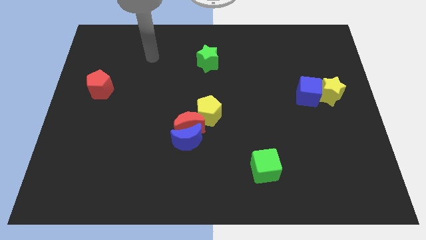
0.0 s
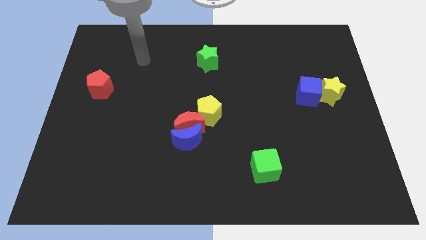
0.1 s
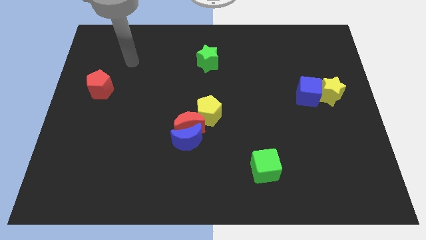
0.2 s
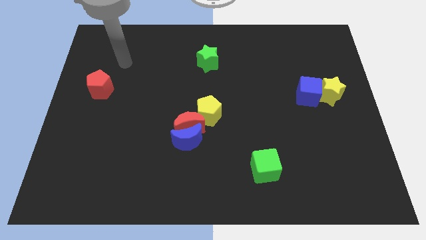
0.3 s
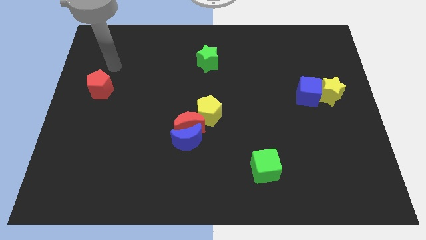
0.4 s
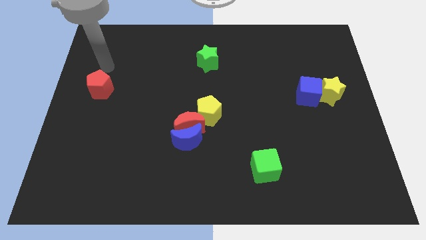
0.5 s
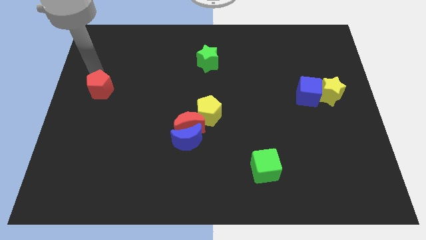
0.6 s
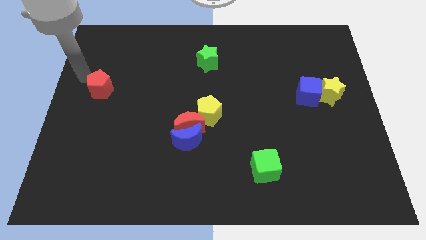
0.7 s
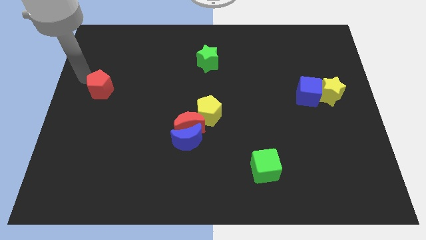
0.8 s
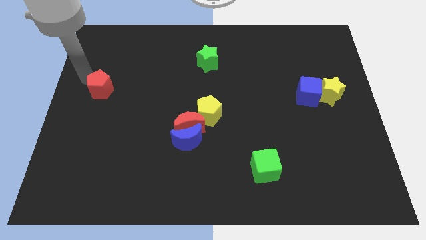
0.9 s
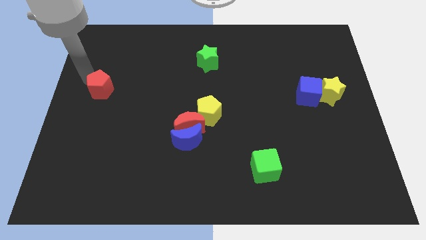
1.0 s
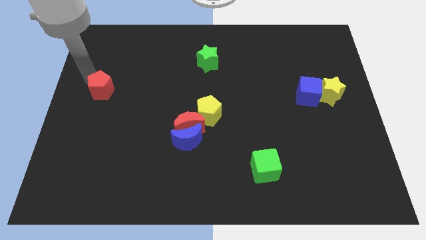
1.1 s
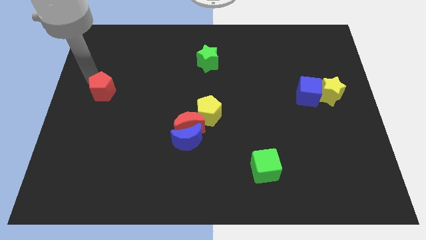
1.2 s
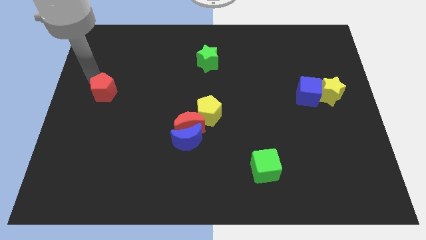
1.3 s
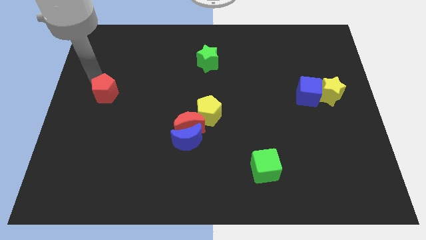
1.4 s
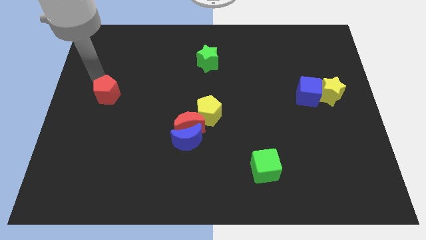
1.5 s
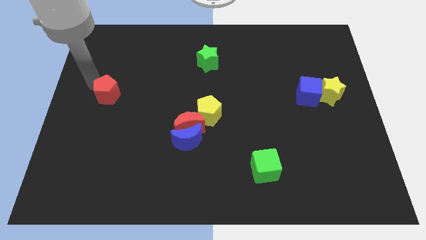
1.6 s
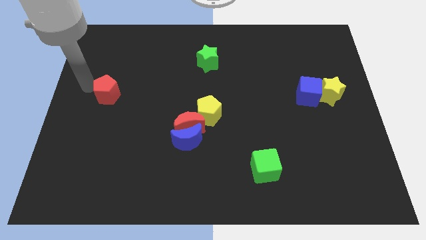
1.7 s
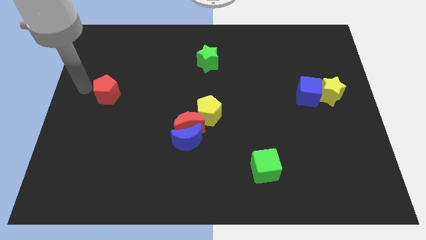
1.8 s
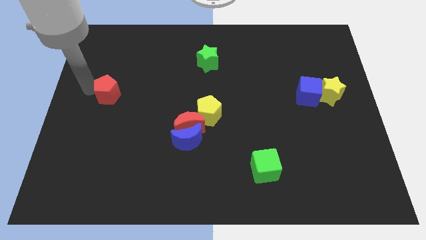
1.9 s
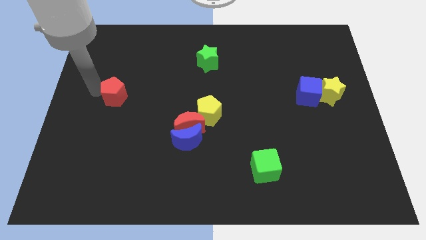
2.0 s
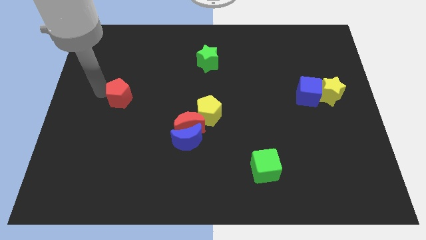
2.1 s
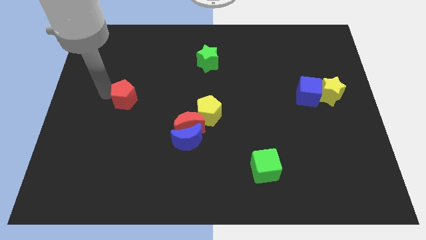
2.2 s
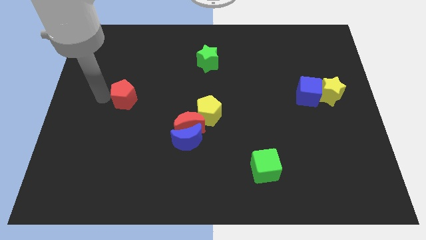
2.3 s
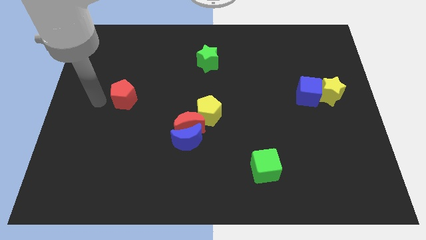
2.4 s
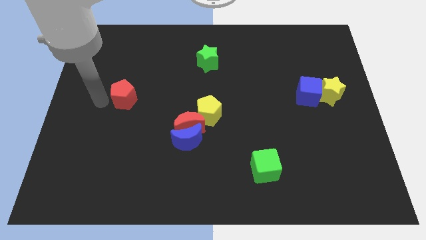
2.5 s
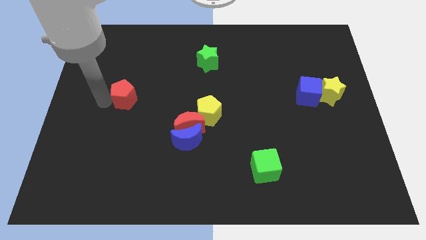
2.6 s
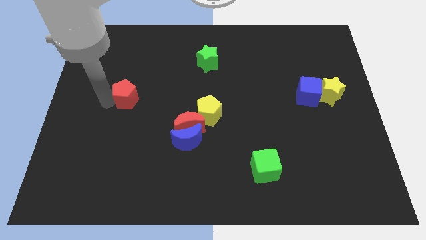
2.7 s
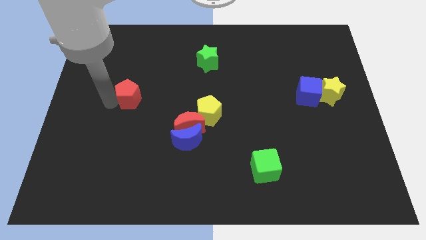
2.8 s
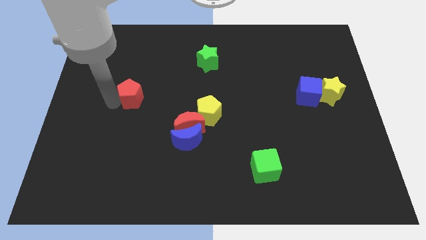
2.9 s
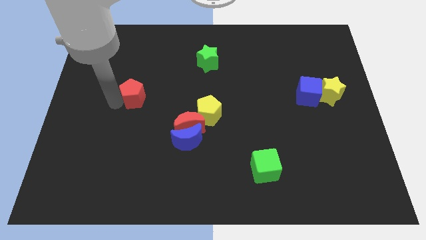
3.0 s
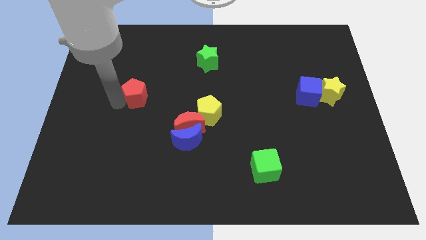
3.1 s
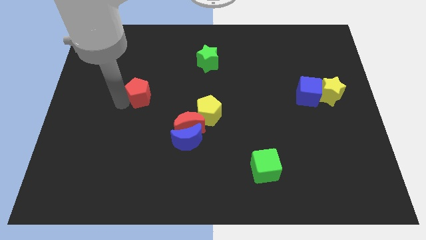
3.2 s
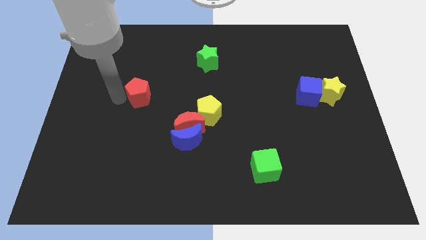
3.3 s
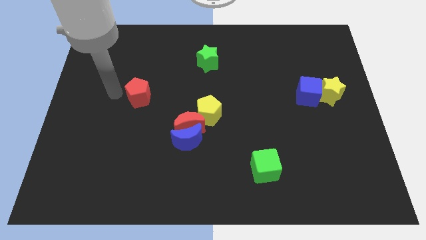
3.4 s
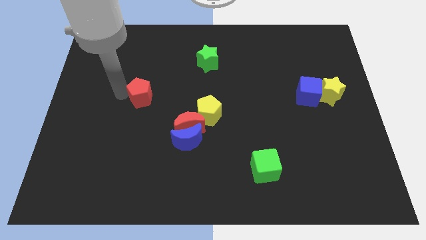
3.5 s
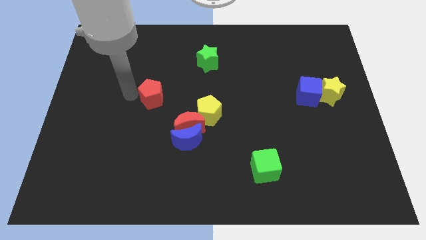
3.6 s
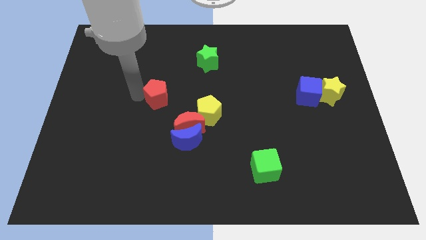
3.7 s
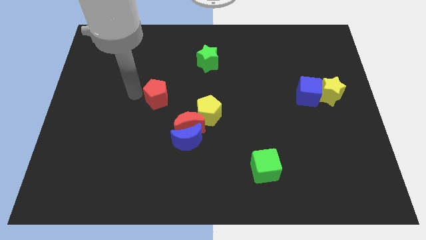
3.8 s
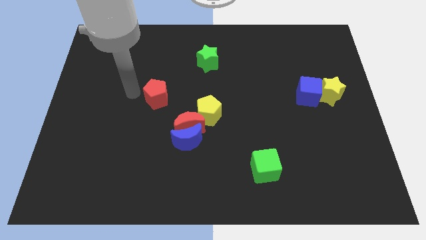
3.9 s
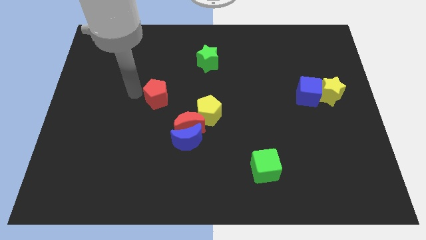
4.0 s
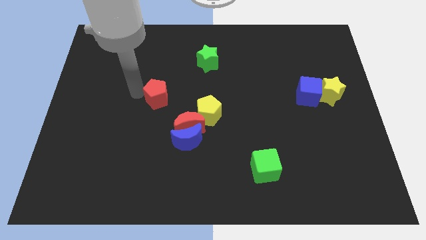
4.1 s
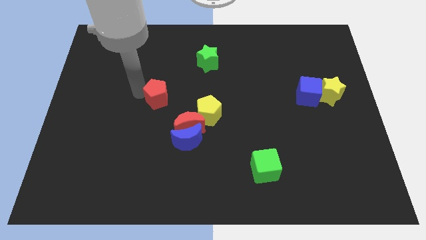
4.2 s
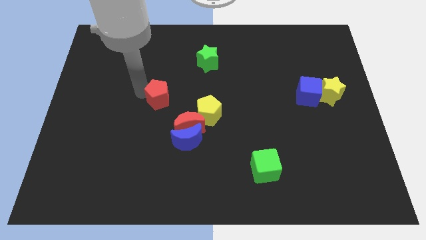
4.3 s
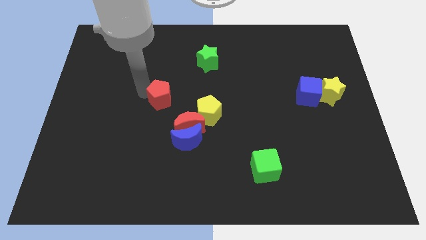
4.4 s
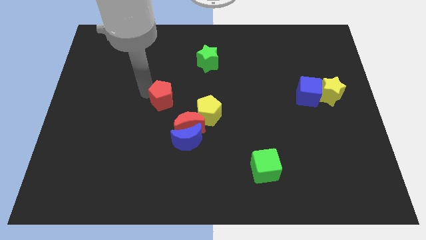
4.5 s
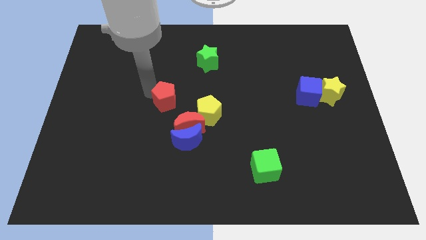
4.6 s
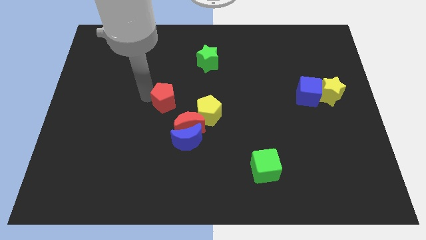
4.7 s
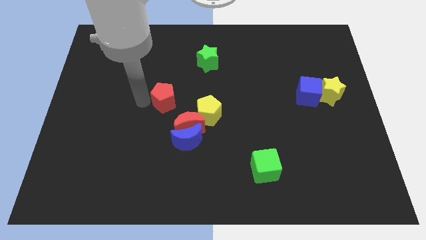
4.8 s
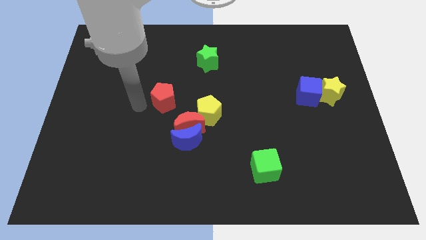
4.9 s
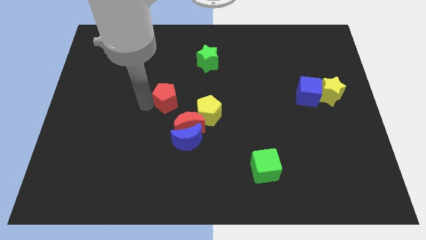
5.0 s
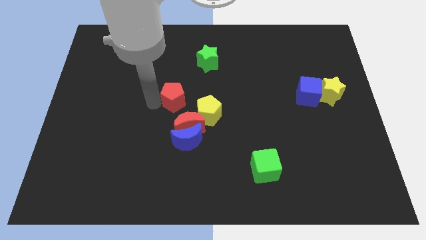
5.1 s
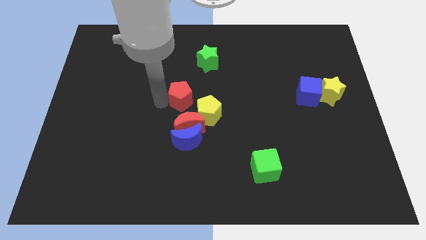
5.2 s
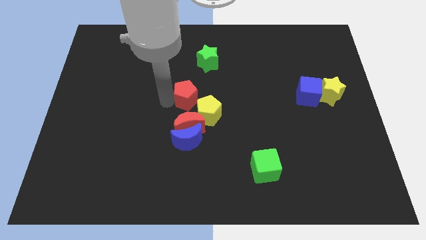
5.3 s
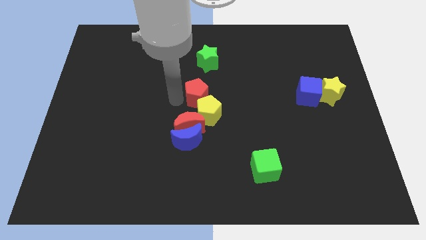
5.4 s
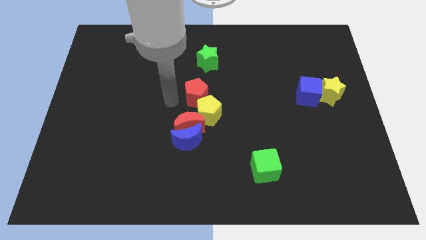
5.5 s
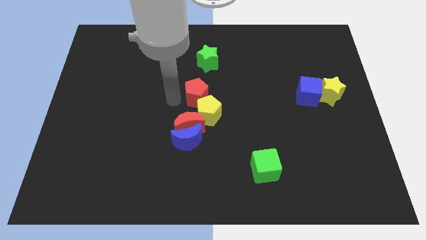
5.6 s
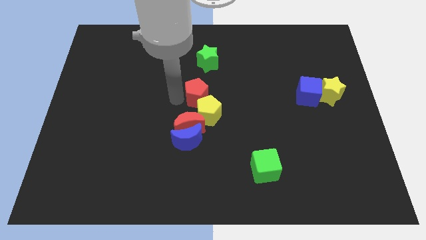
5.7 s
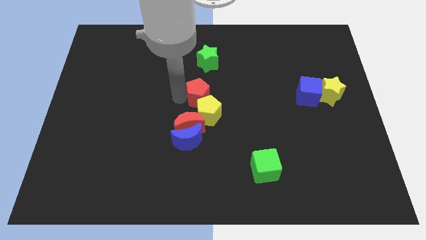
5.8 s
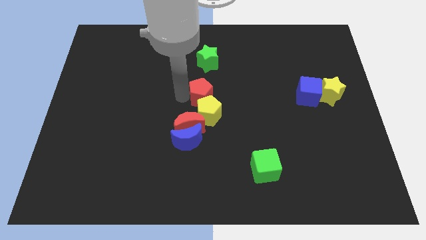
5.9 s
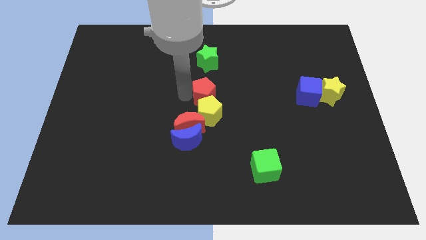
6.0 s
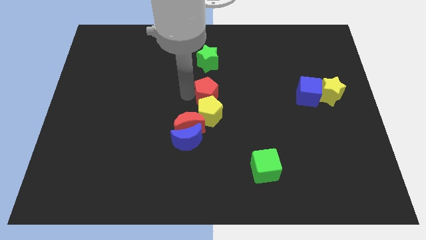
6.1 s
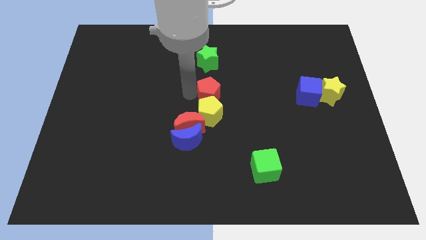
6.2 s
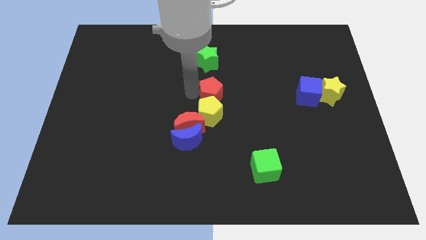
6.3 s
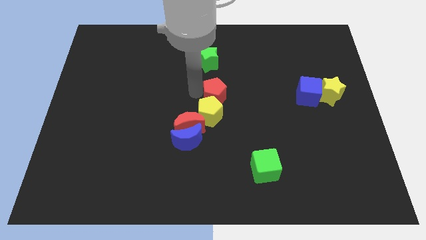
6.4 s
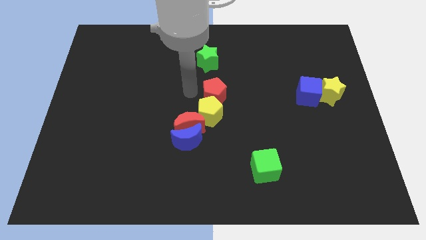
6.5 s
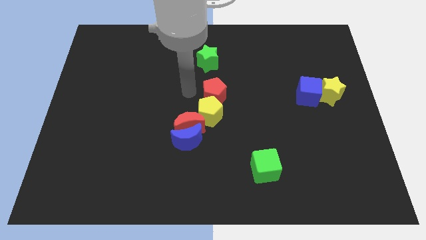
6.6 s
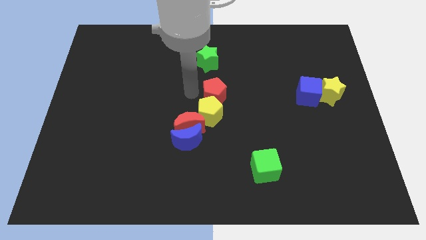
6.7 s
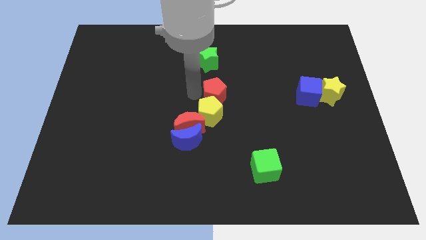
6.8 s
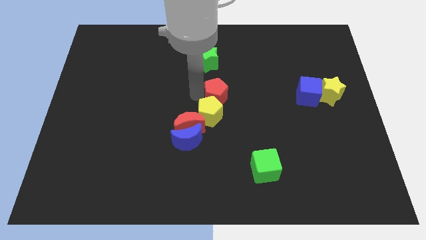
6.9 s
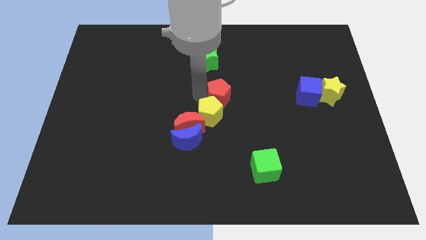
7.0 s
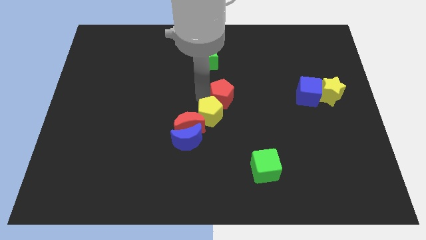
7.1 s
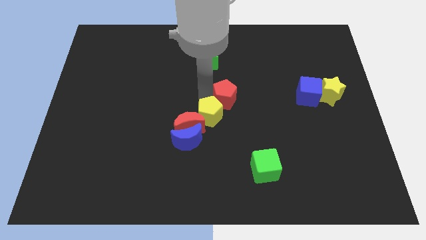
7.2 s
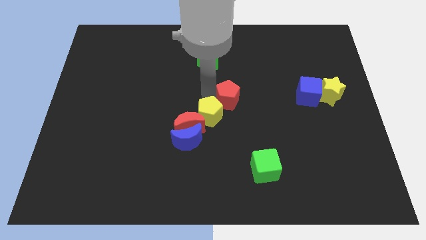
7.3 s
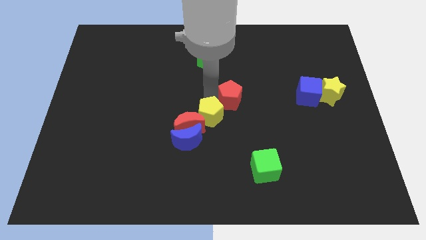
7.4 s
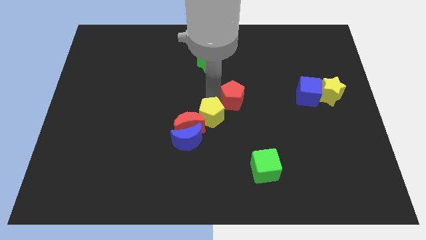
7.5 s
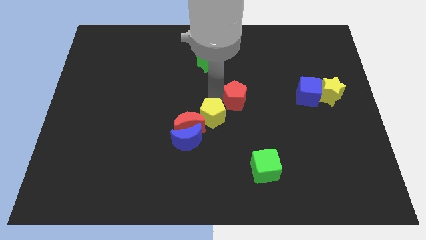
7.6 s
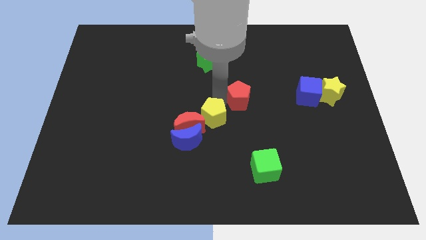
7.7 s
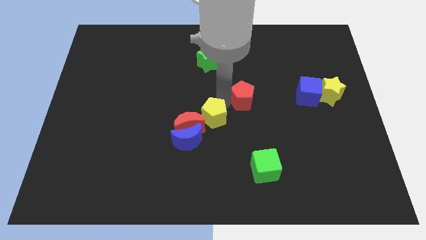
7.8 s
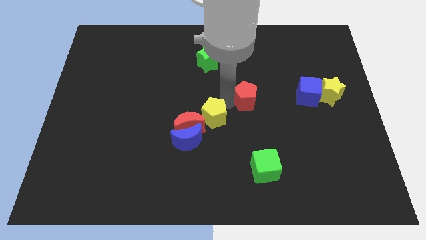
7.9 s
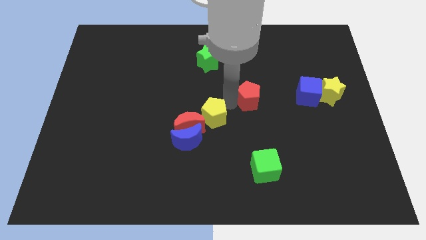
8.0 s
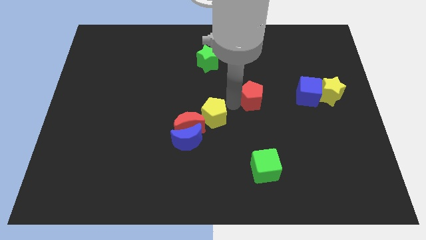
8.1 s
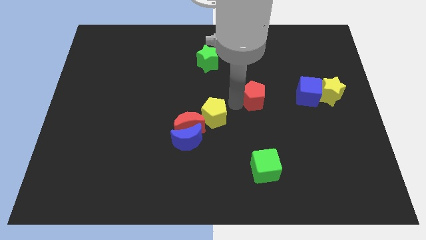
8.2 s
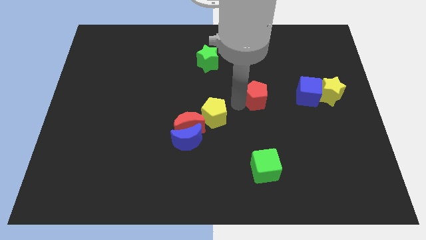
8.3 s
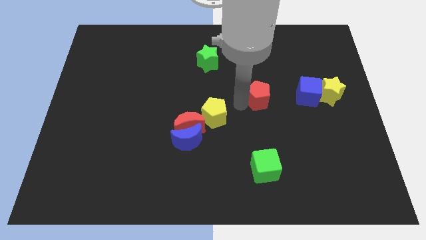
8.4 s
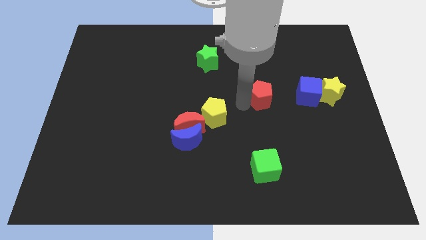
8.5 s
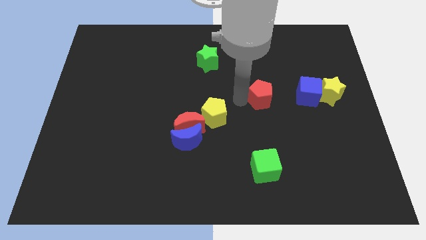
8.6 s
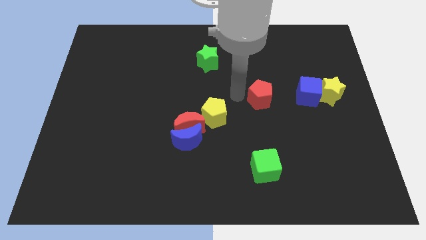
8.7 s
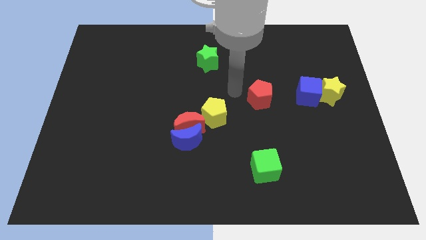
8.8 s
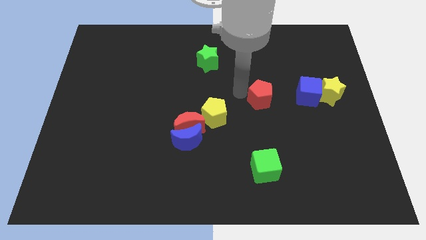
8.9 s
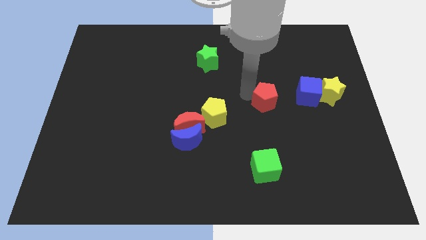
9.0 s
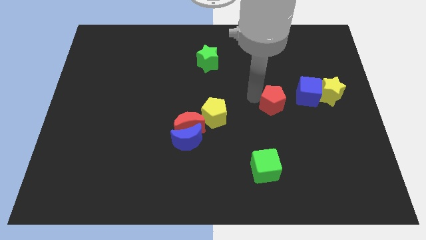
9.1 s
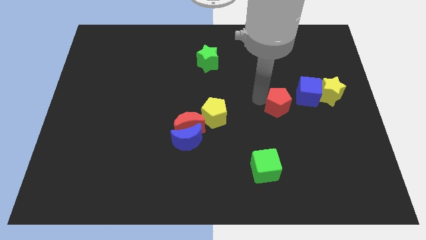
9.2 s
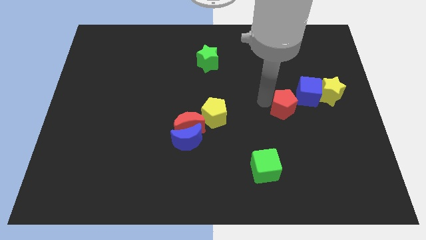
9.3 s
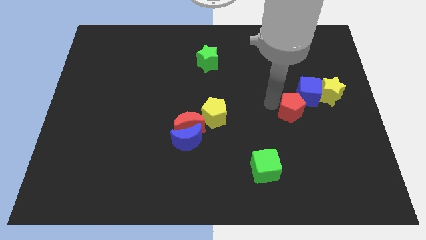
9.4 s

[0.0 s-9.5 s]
slide the red pentagon to the bottom left side of the yellow star
